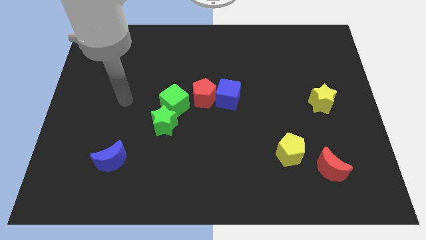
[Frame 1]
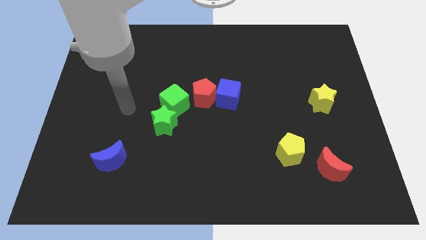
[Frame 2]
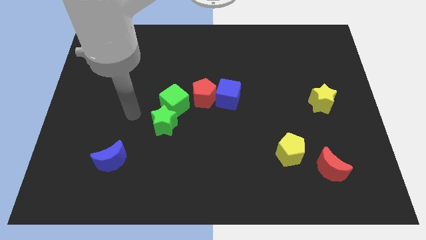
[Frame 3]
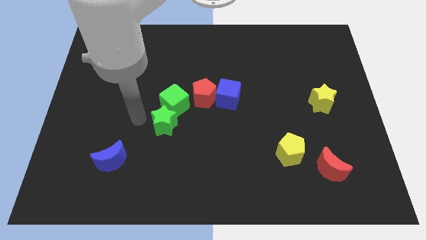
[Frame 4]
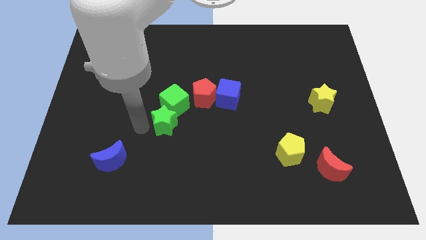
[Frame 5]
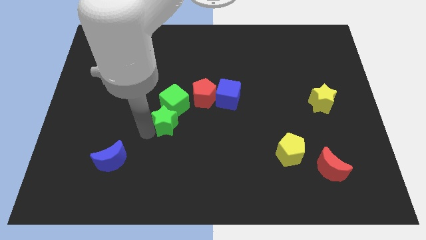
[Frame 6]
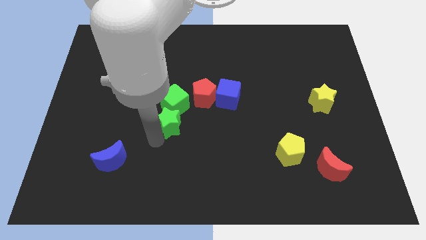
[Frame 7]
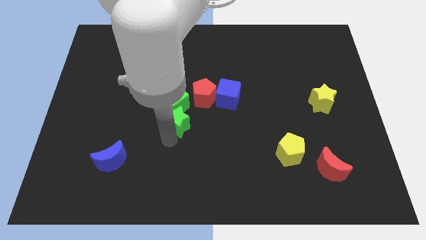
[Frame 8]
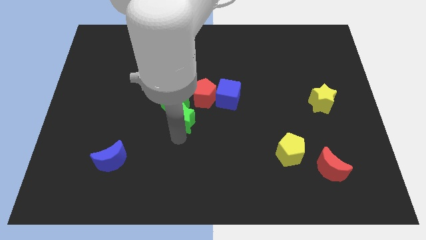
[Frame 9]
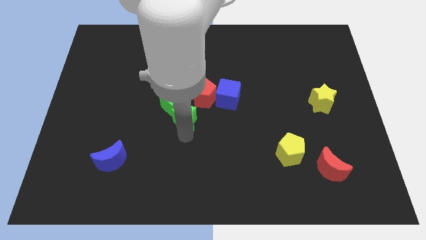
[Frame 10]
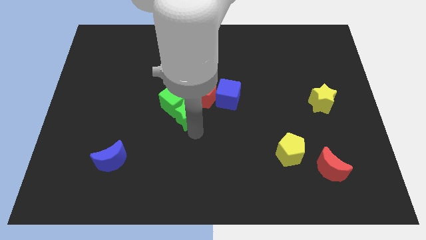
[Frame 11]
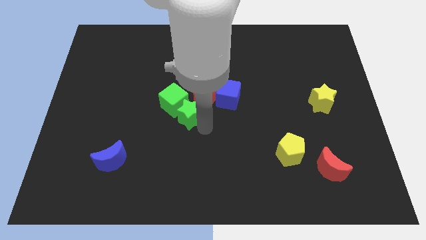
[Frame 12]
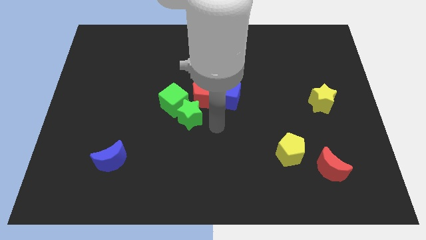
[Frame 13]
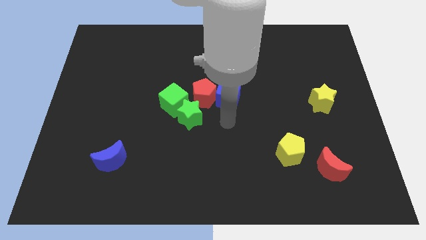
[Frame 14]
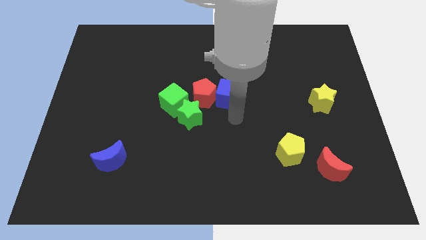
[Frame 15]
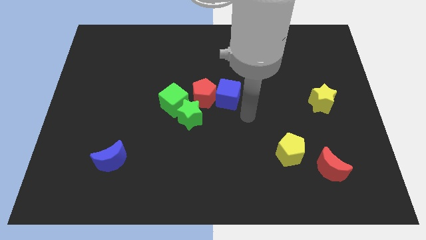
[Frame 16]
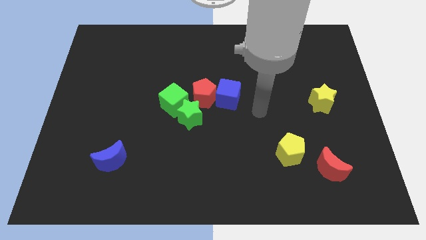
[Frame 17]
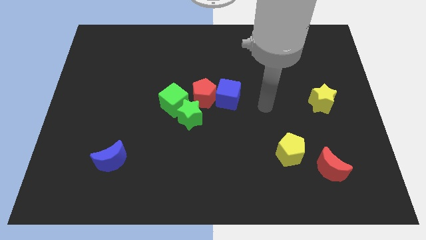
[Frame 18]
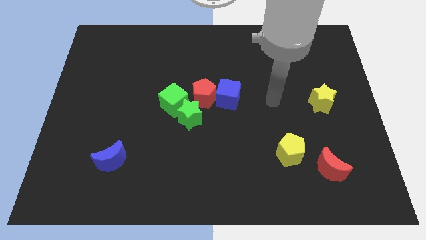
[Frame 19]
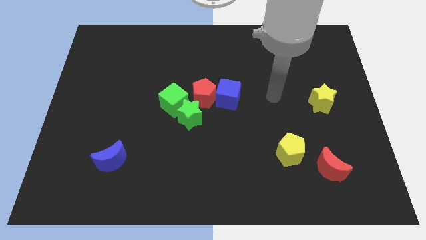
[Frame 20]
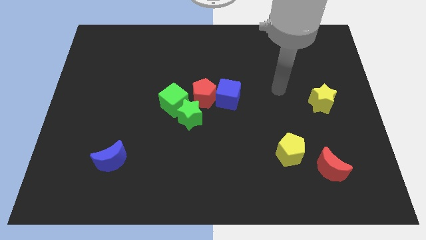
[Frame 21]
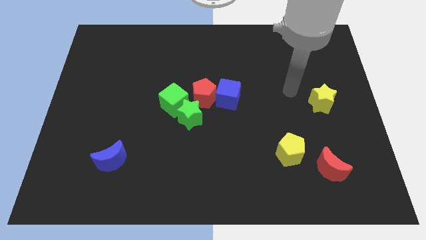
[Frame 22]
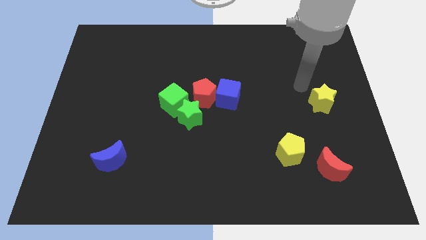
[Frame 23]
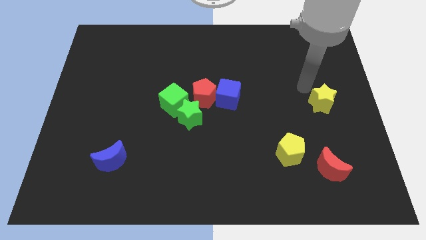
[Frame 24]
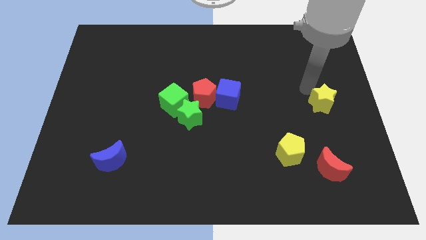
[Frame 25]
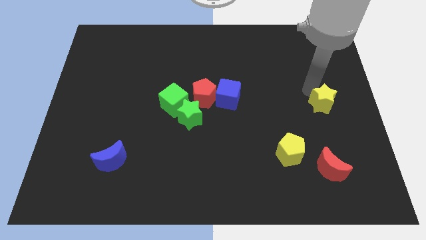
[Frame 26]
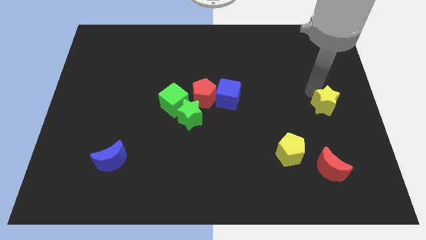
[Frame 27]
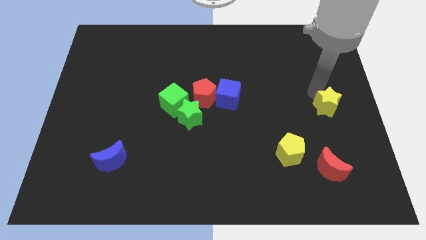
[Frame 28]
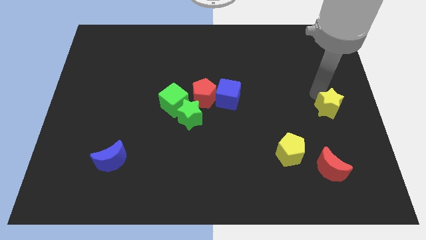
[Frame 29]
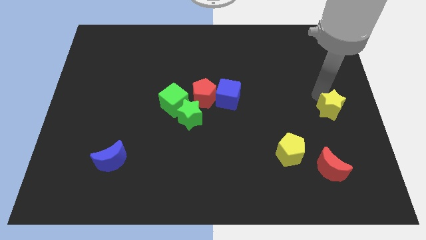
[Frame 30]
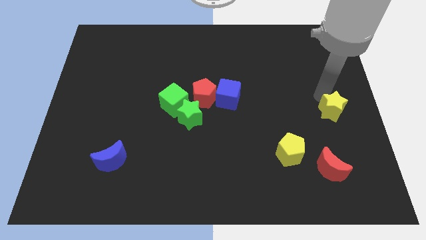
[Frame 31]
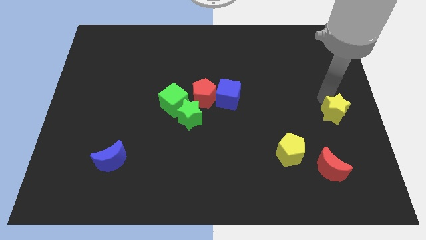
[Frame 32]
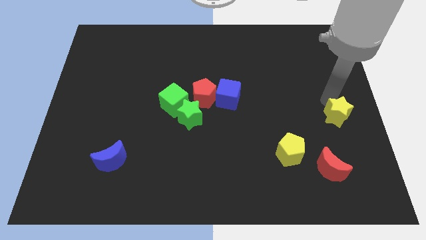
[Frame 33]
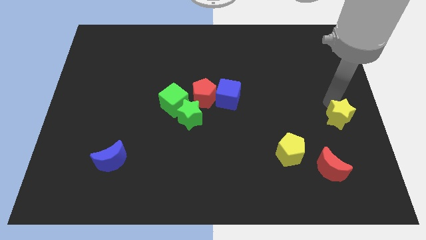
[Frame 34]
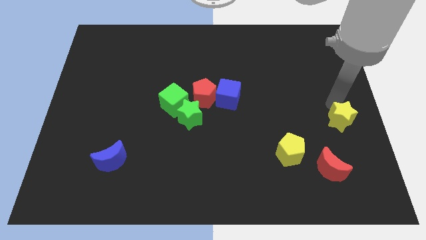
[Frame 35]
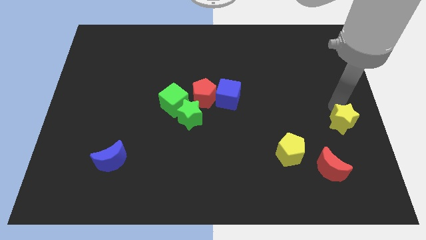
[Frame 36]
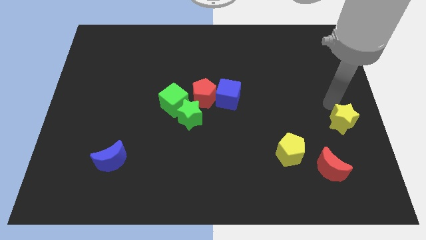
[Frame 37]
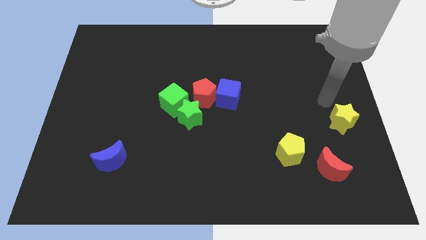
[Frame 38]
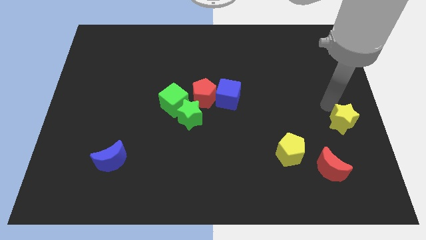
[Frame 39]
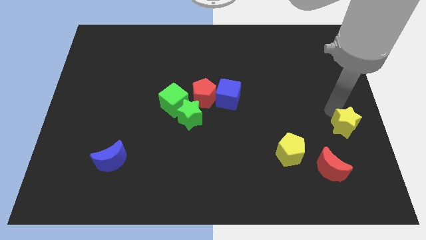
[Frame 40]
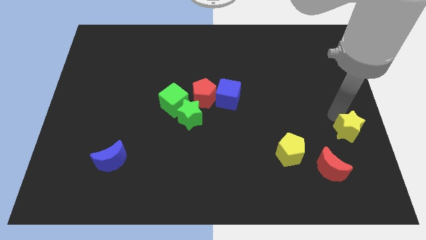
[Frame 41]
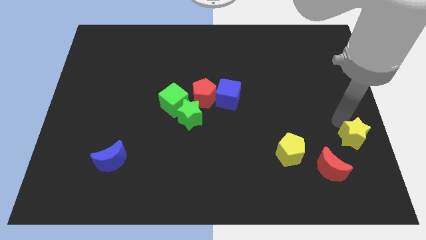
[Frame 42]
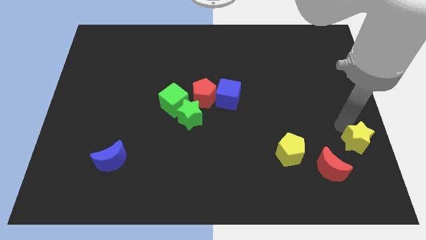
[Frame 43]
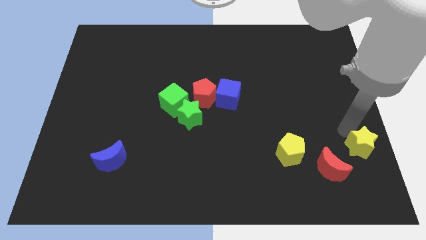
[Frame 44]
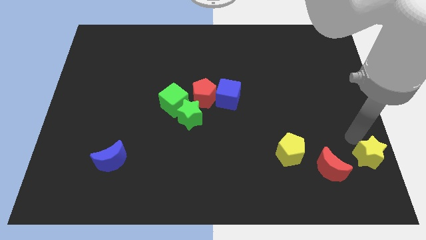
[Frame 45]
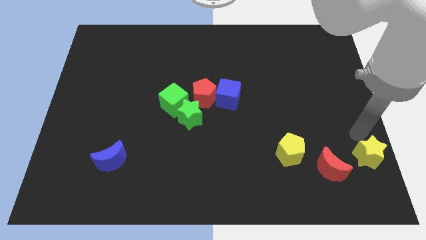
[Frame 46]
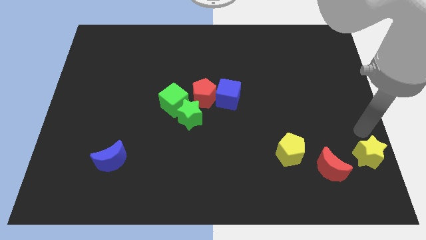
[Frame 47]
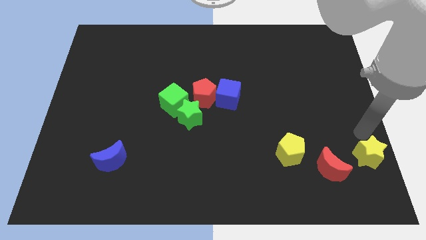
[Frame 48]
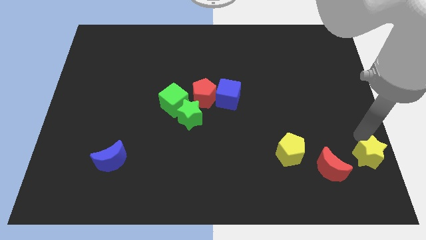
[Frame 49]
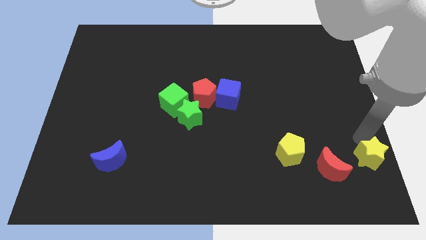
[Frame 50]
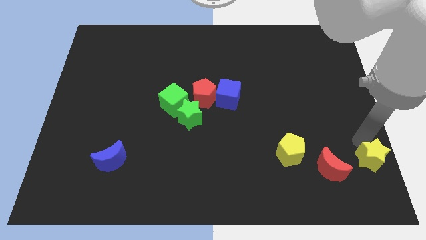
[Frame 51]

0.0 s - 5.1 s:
put the yellow star to the lower right corner

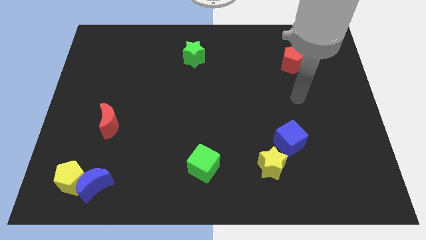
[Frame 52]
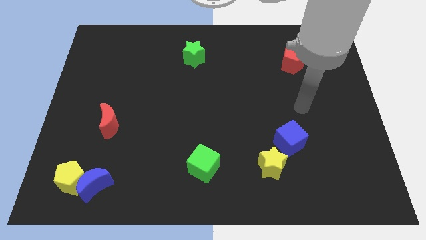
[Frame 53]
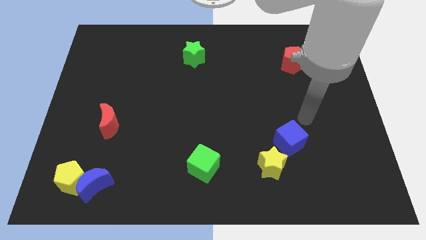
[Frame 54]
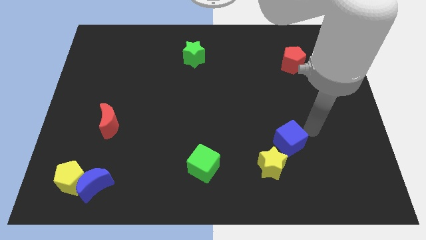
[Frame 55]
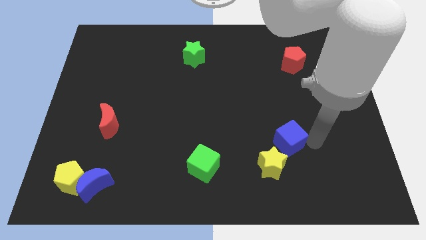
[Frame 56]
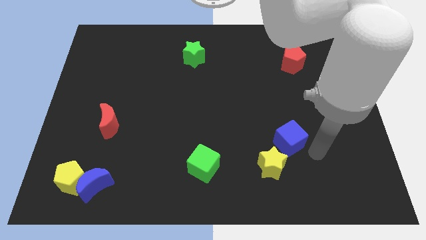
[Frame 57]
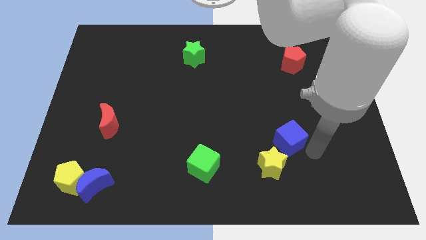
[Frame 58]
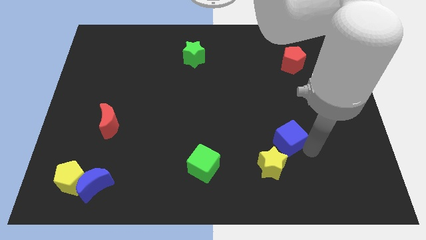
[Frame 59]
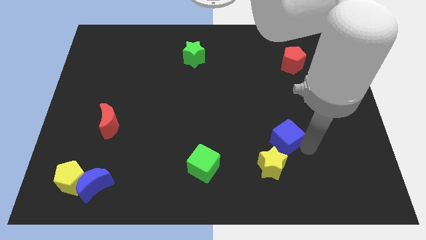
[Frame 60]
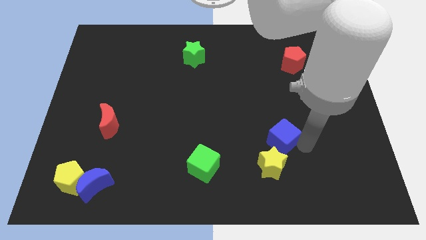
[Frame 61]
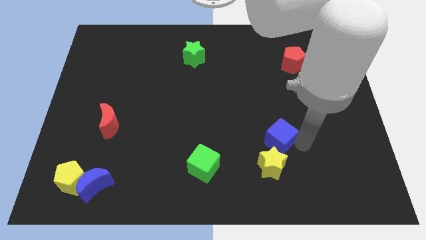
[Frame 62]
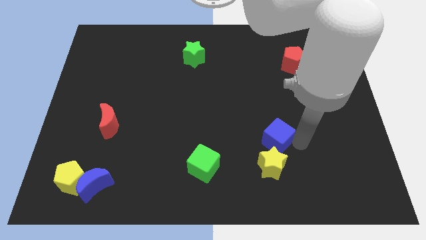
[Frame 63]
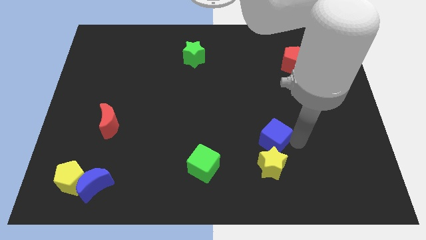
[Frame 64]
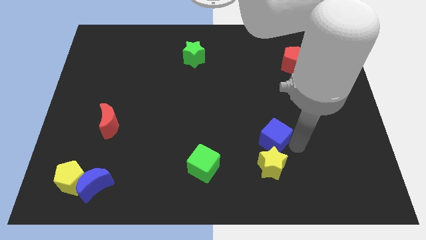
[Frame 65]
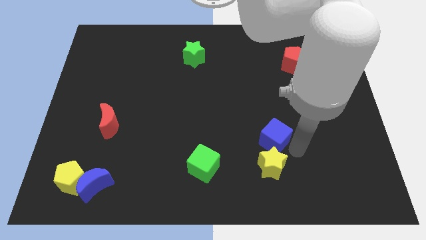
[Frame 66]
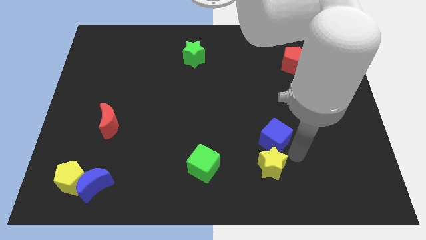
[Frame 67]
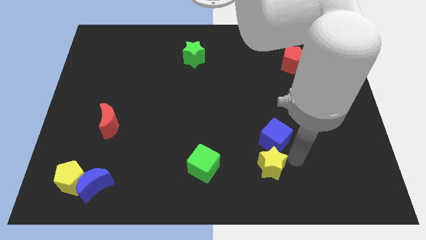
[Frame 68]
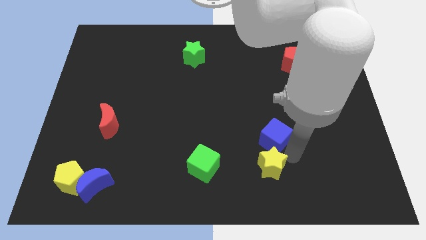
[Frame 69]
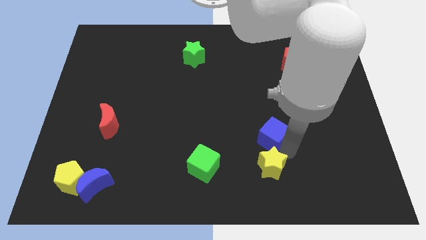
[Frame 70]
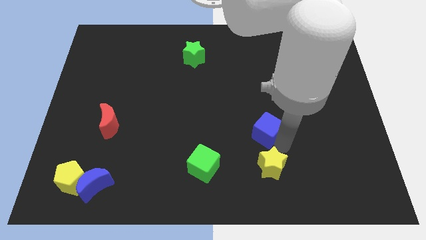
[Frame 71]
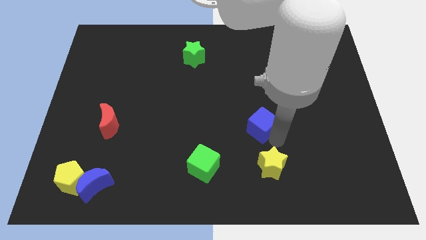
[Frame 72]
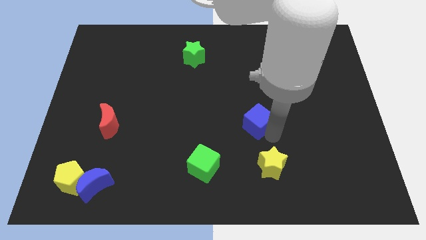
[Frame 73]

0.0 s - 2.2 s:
push the blue cube to the middle of the board
